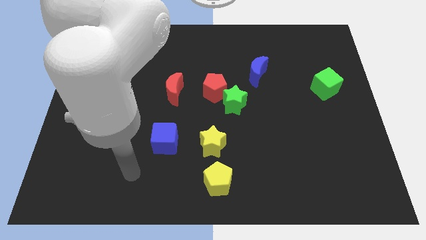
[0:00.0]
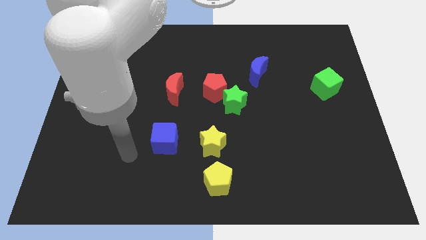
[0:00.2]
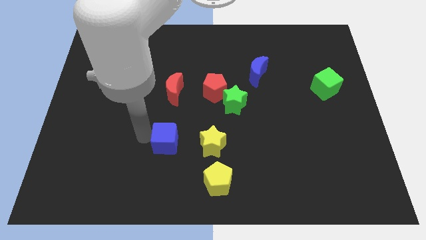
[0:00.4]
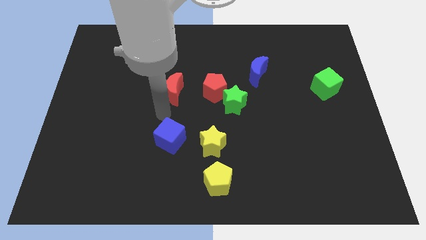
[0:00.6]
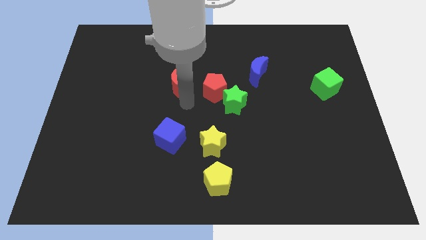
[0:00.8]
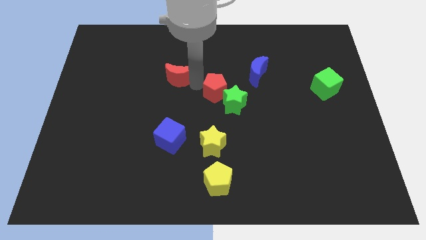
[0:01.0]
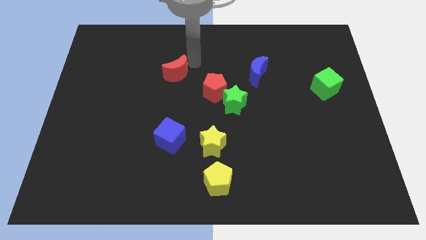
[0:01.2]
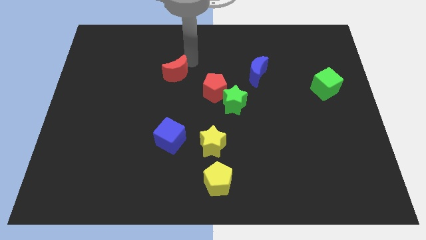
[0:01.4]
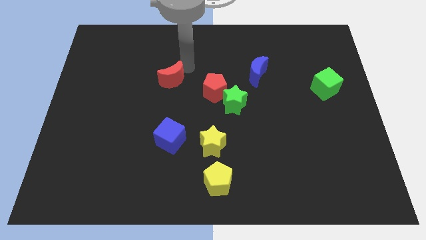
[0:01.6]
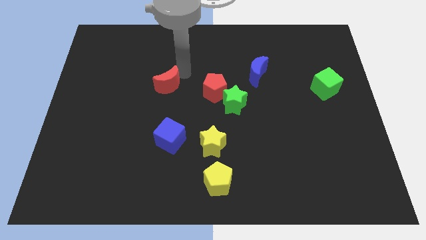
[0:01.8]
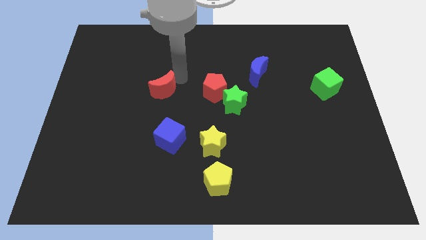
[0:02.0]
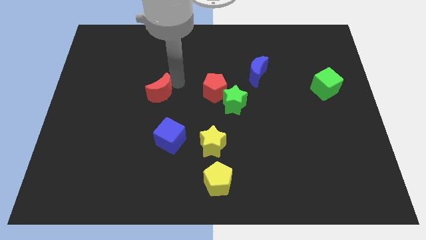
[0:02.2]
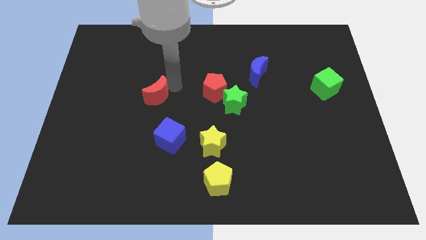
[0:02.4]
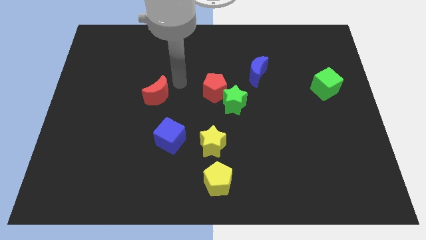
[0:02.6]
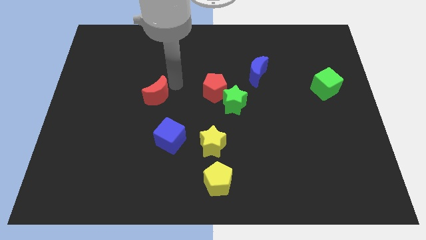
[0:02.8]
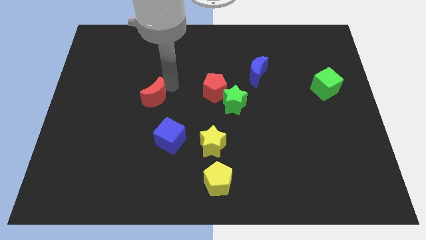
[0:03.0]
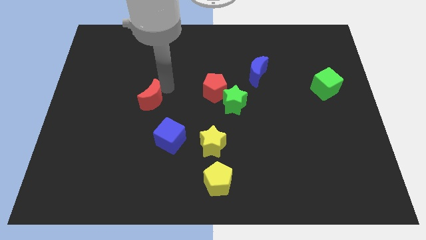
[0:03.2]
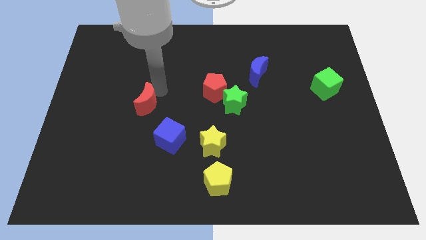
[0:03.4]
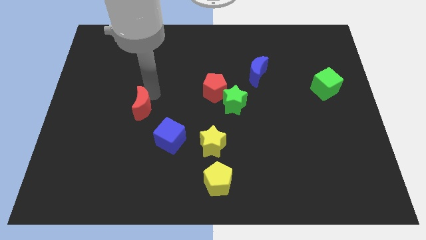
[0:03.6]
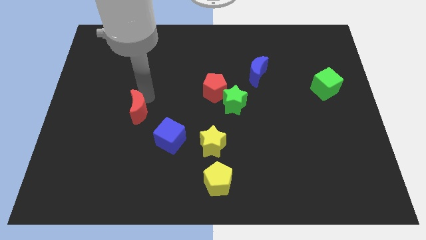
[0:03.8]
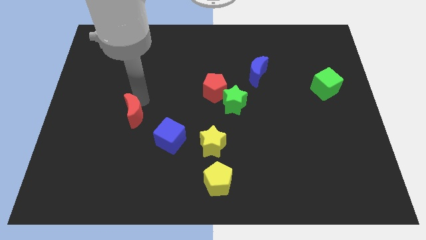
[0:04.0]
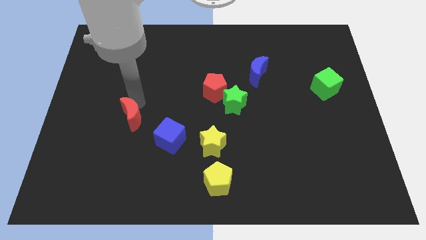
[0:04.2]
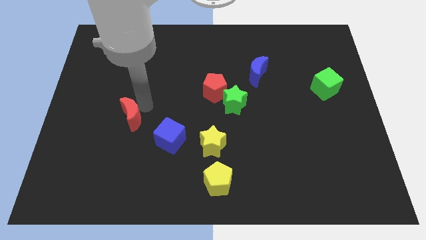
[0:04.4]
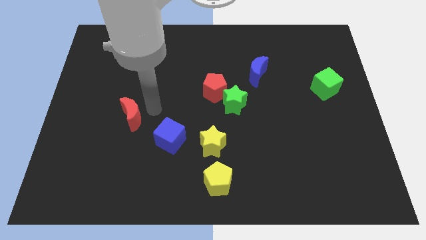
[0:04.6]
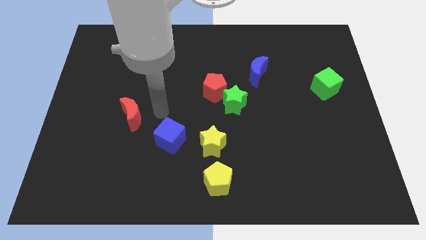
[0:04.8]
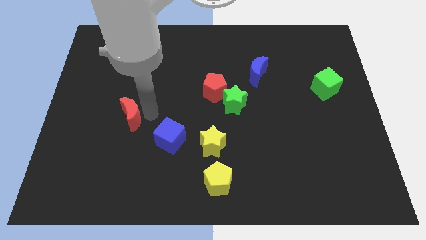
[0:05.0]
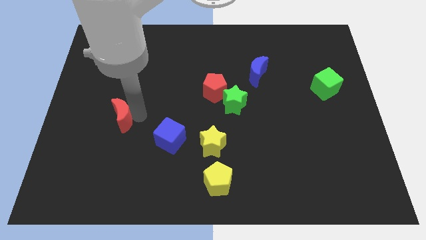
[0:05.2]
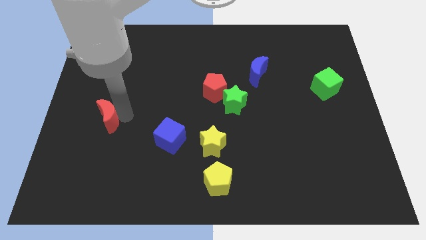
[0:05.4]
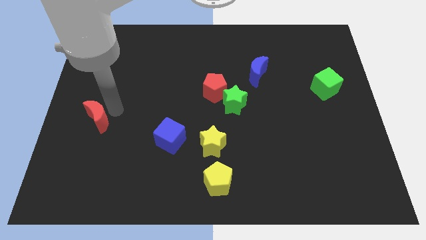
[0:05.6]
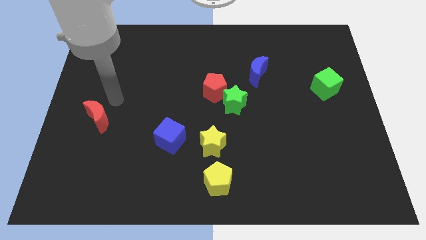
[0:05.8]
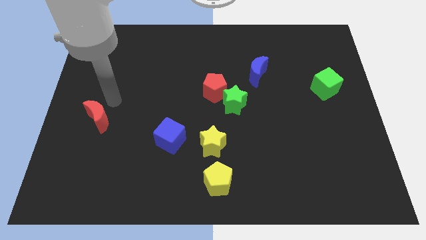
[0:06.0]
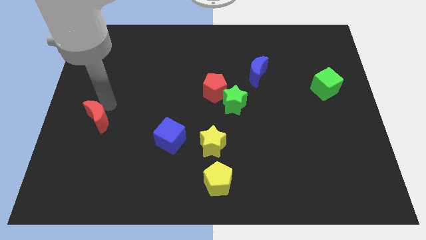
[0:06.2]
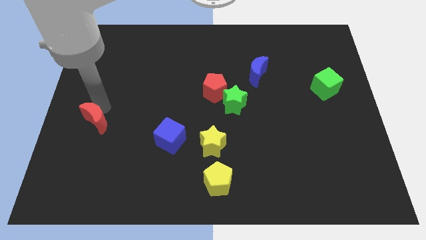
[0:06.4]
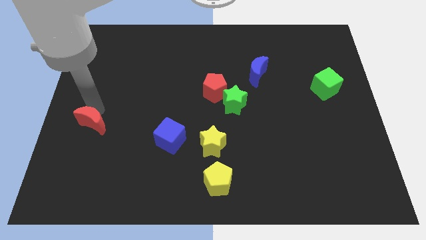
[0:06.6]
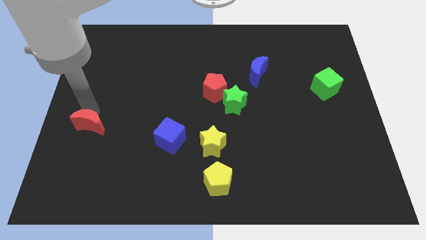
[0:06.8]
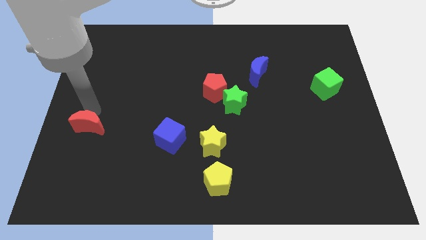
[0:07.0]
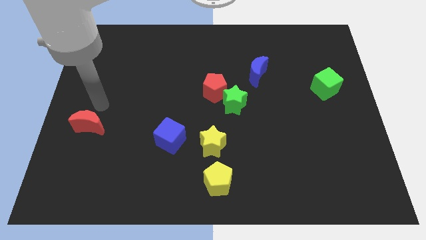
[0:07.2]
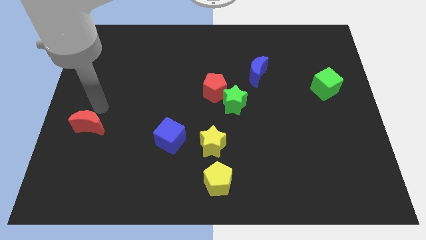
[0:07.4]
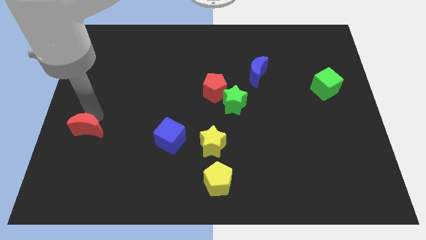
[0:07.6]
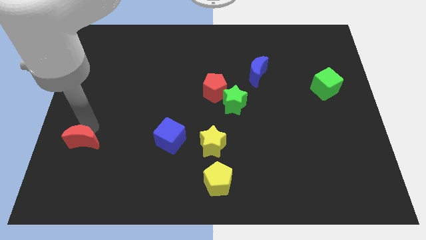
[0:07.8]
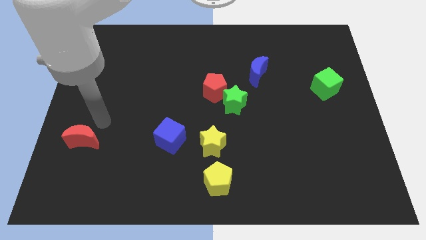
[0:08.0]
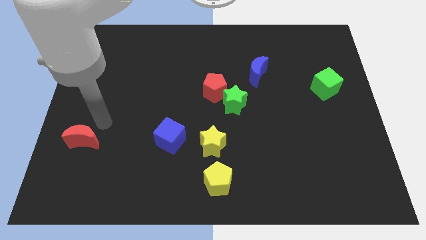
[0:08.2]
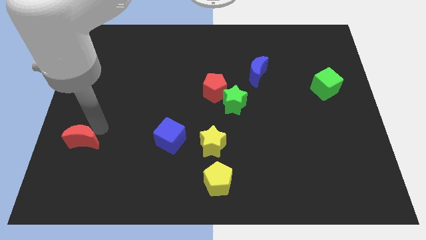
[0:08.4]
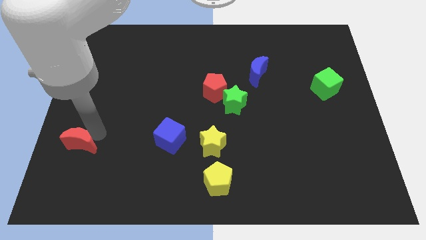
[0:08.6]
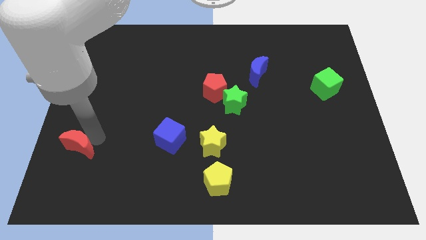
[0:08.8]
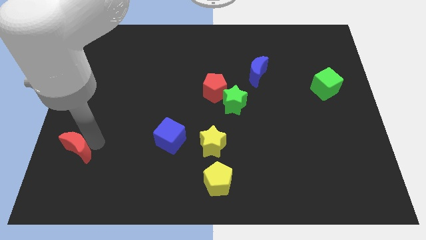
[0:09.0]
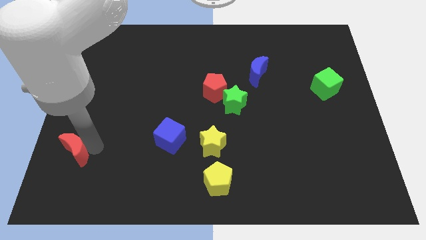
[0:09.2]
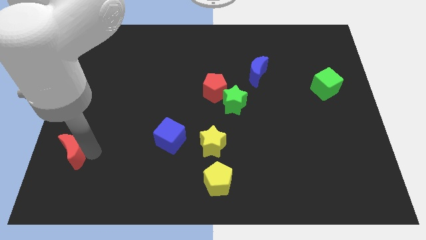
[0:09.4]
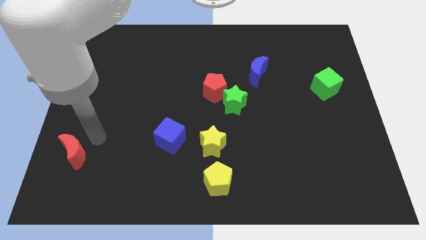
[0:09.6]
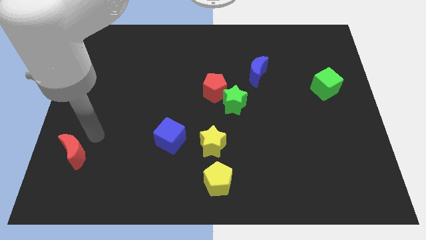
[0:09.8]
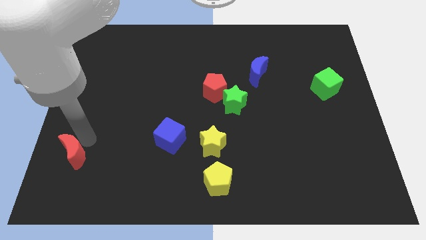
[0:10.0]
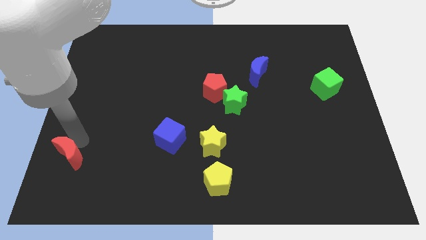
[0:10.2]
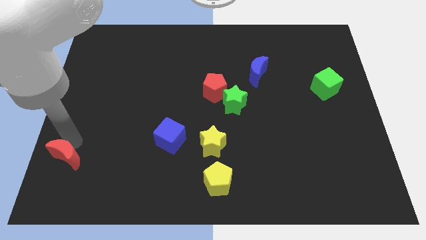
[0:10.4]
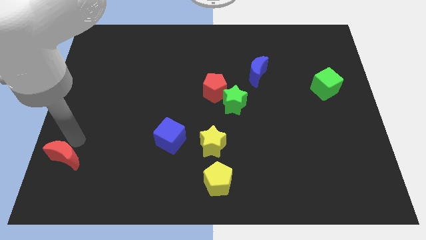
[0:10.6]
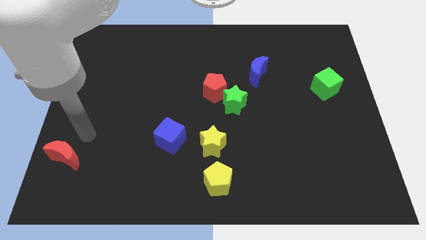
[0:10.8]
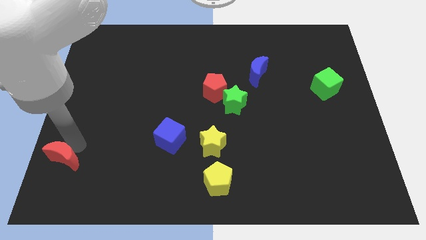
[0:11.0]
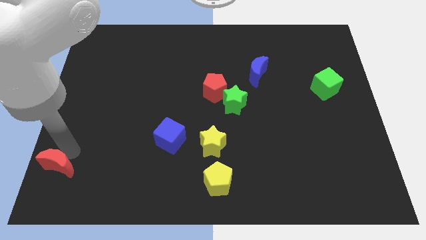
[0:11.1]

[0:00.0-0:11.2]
move the red moon to the bottom left
